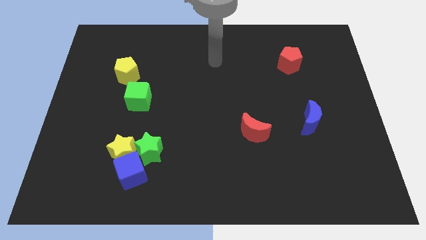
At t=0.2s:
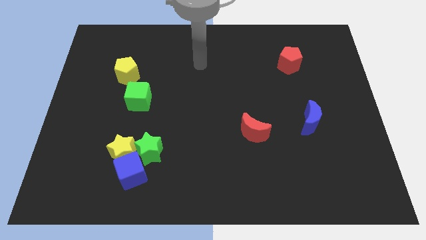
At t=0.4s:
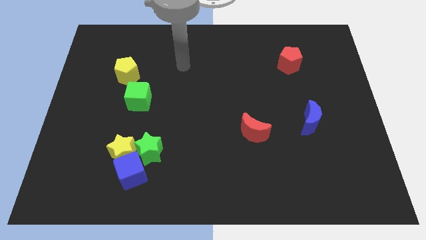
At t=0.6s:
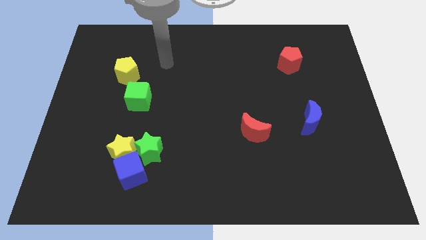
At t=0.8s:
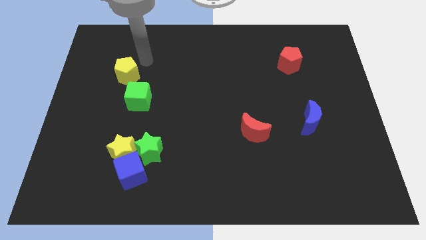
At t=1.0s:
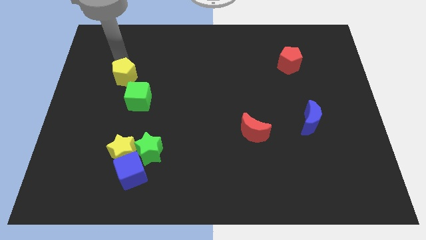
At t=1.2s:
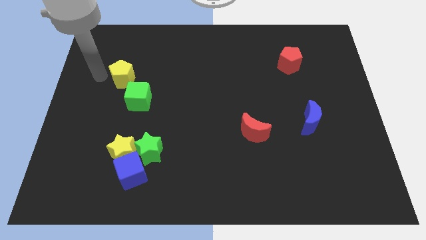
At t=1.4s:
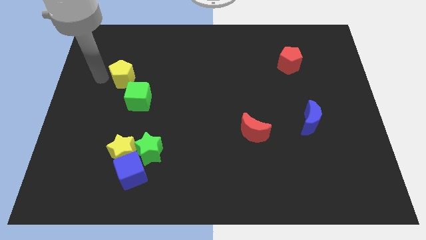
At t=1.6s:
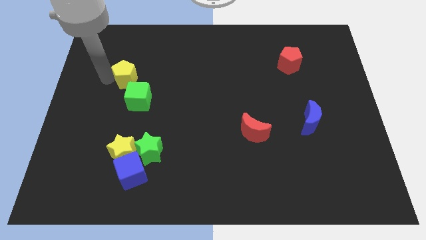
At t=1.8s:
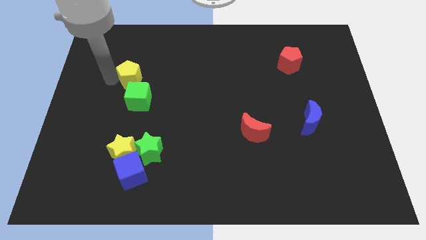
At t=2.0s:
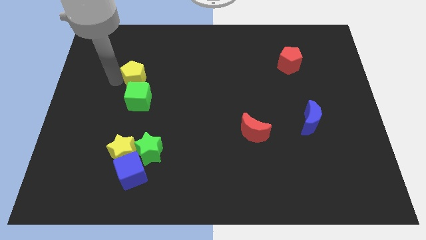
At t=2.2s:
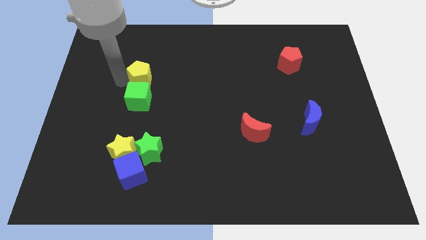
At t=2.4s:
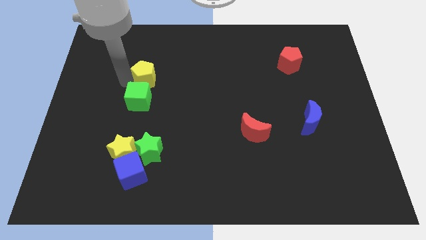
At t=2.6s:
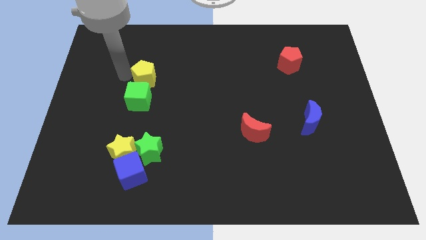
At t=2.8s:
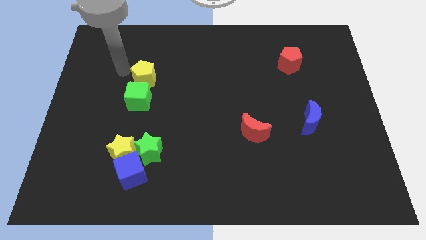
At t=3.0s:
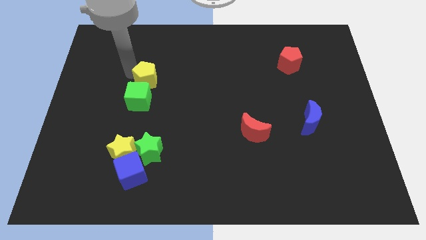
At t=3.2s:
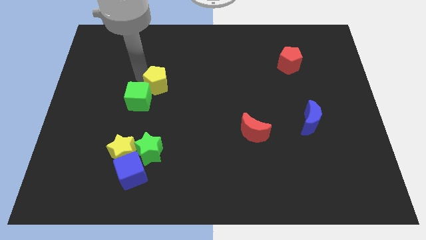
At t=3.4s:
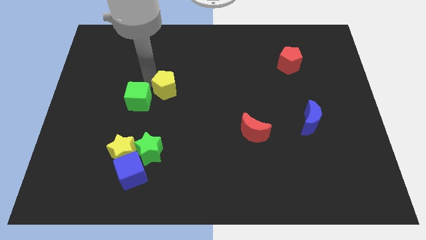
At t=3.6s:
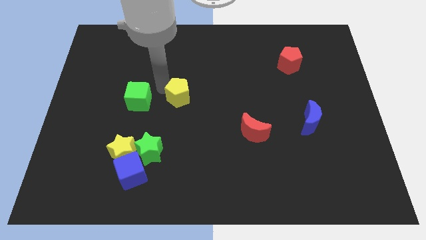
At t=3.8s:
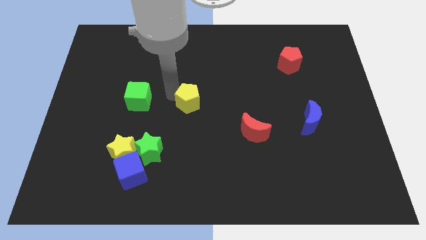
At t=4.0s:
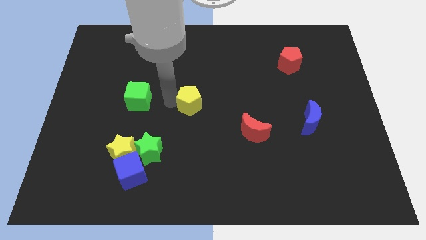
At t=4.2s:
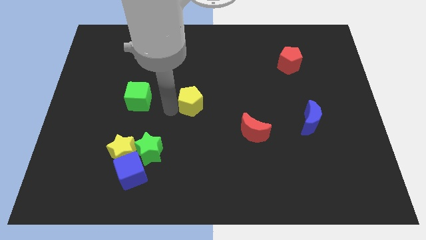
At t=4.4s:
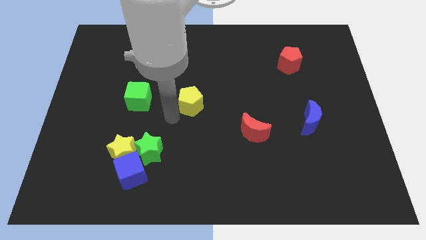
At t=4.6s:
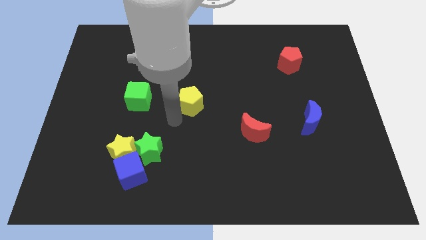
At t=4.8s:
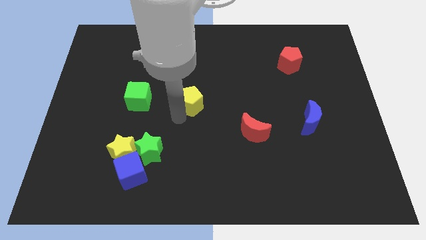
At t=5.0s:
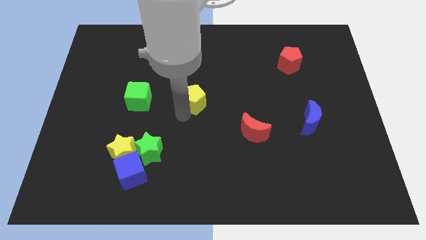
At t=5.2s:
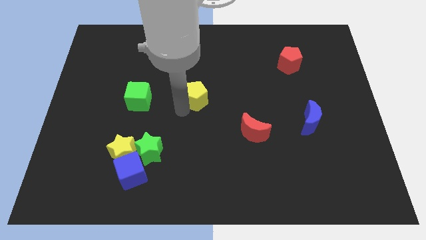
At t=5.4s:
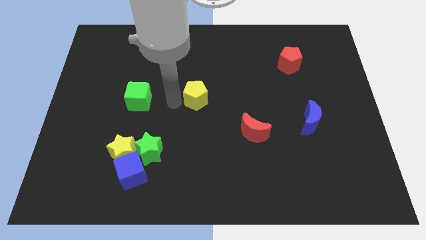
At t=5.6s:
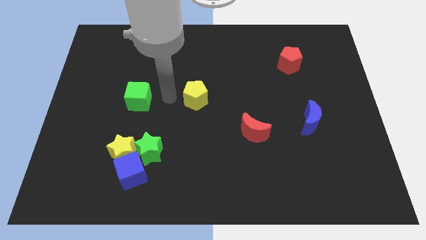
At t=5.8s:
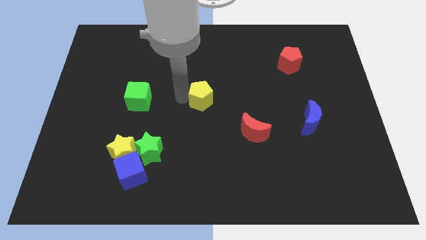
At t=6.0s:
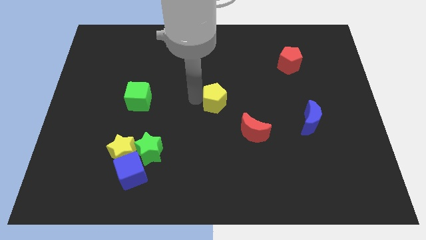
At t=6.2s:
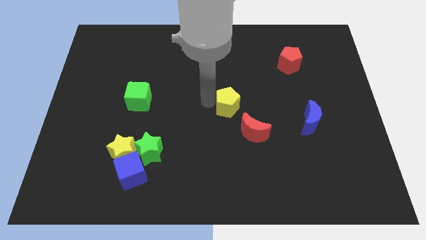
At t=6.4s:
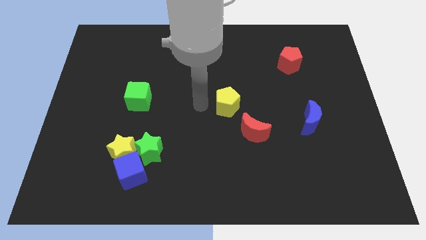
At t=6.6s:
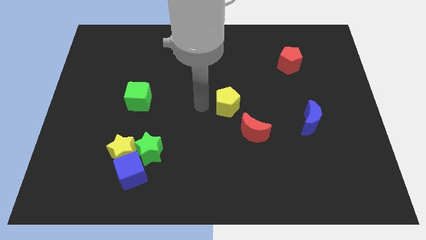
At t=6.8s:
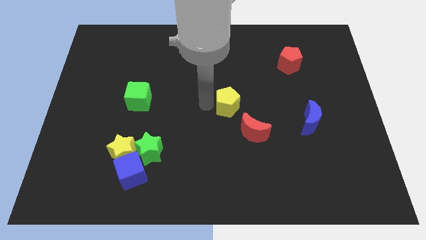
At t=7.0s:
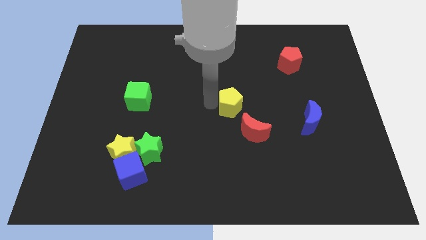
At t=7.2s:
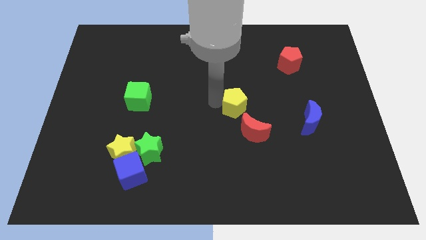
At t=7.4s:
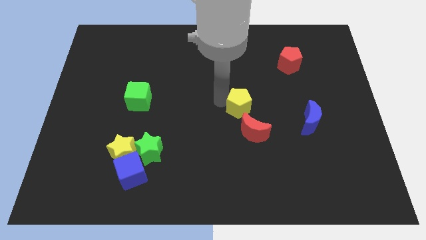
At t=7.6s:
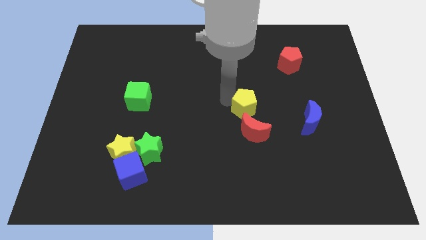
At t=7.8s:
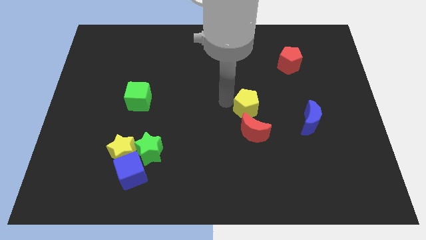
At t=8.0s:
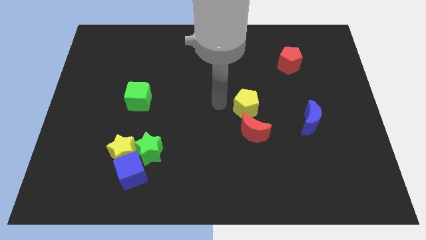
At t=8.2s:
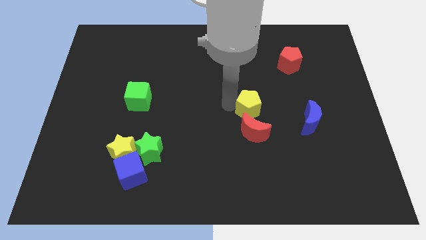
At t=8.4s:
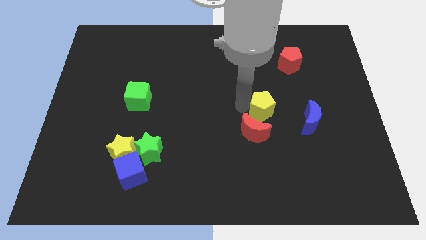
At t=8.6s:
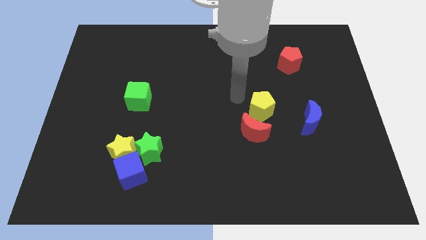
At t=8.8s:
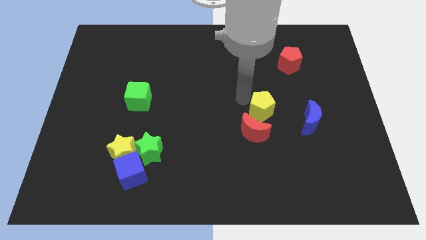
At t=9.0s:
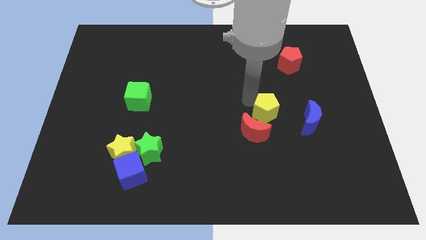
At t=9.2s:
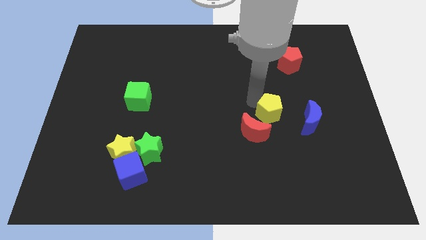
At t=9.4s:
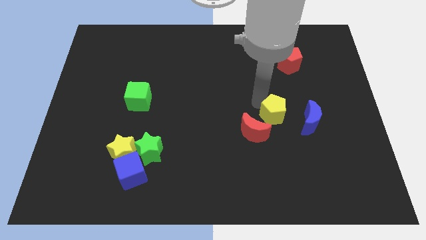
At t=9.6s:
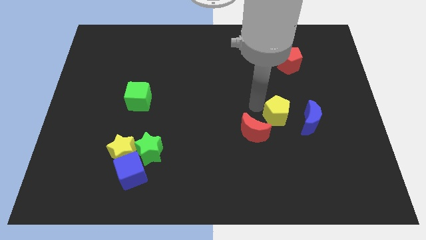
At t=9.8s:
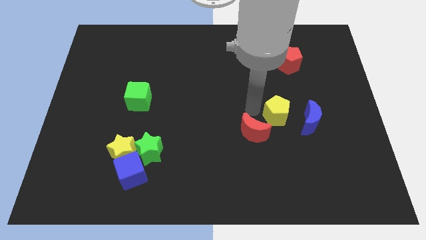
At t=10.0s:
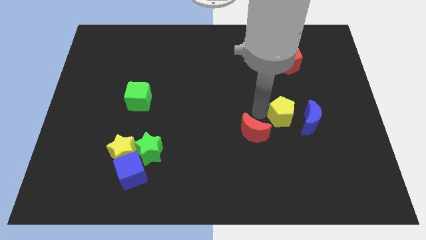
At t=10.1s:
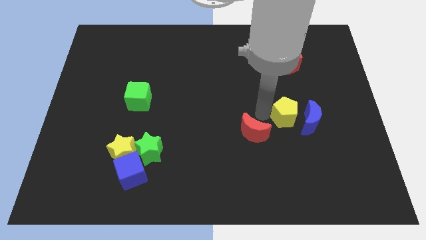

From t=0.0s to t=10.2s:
put the yellow pentagon towards the blue moon

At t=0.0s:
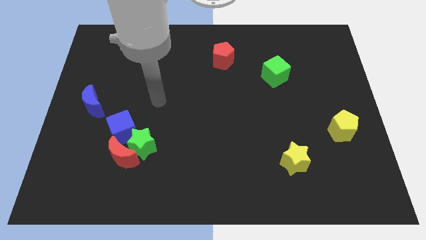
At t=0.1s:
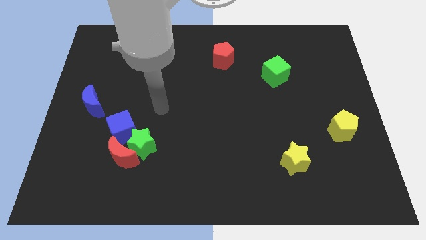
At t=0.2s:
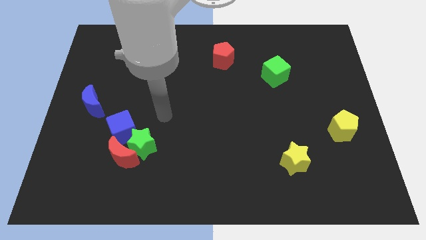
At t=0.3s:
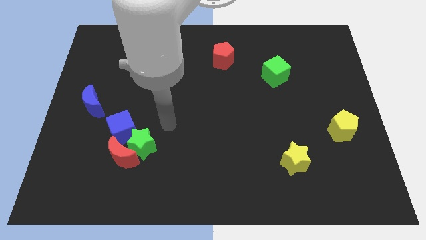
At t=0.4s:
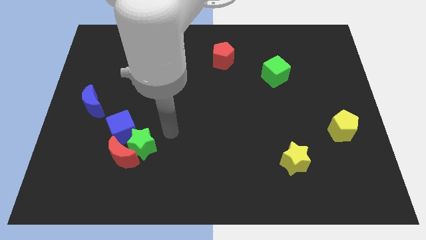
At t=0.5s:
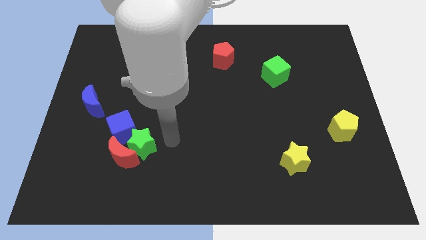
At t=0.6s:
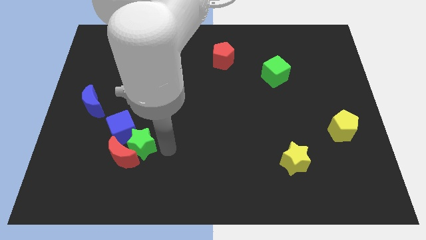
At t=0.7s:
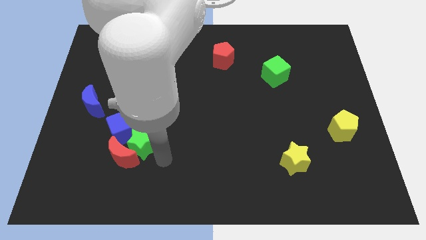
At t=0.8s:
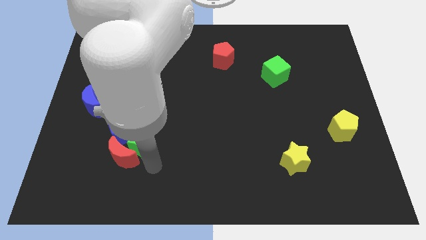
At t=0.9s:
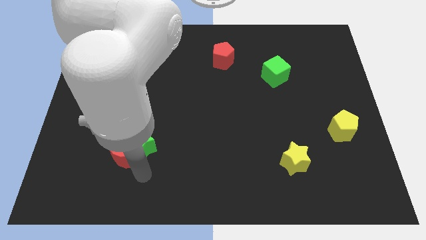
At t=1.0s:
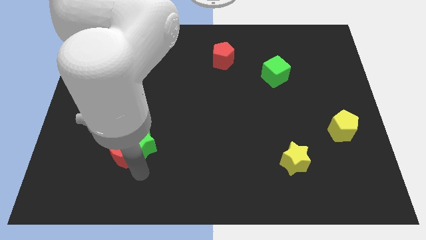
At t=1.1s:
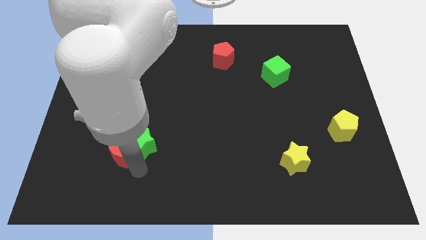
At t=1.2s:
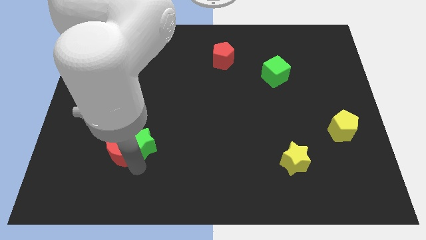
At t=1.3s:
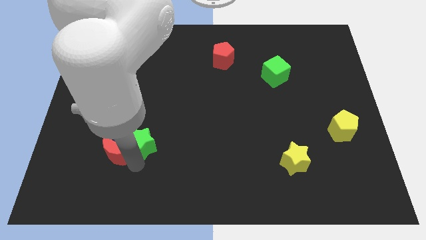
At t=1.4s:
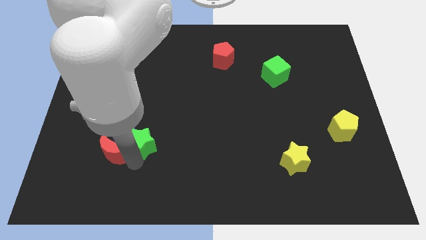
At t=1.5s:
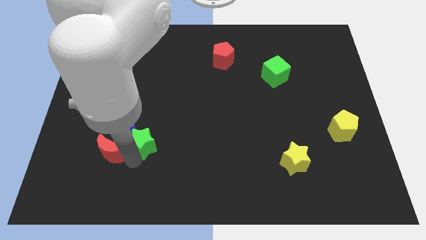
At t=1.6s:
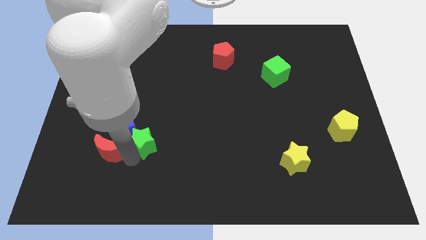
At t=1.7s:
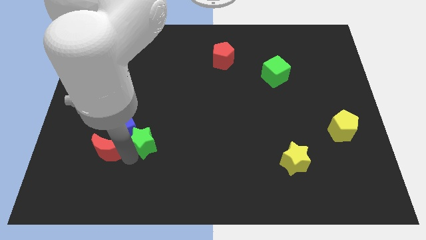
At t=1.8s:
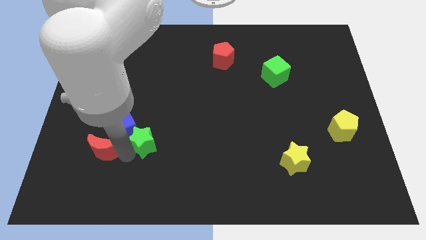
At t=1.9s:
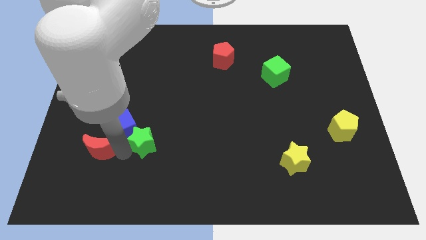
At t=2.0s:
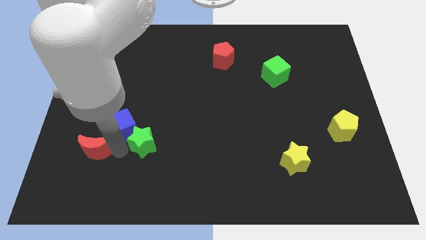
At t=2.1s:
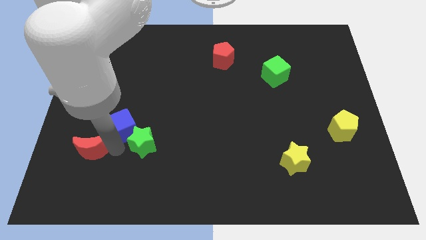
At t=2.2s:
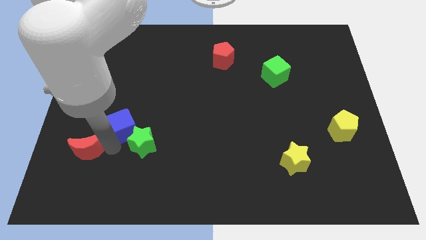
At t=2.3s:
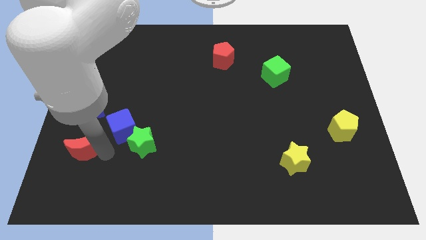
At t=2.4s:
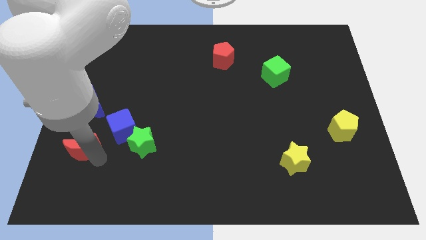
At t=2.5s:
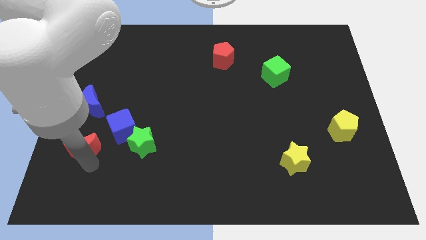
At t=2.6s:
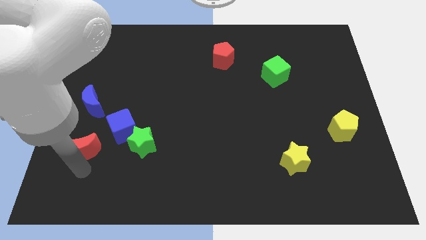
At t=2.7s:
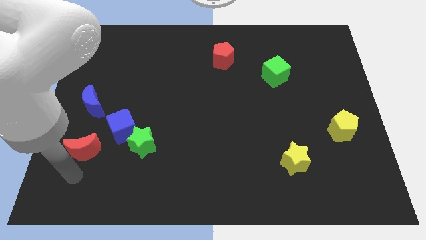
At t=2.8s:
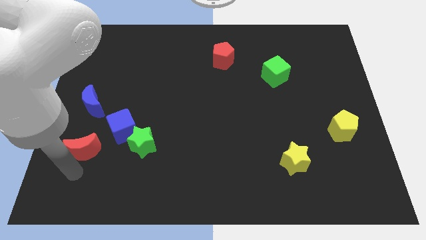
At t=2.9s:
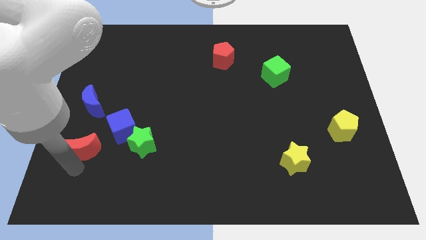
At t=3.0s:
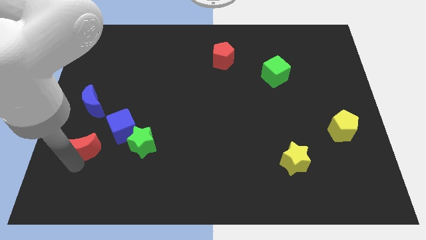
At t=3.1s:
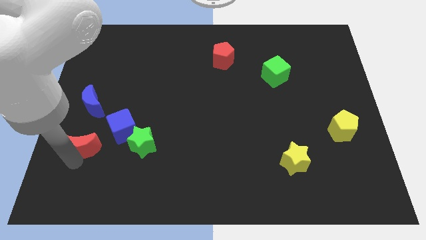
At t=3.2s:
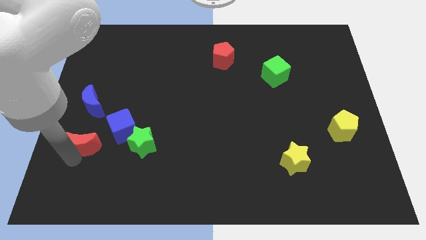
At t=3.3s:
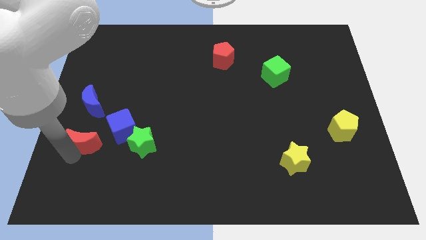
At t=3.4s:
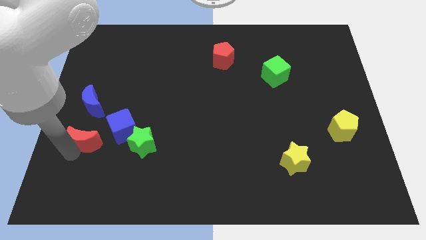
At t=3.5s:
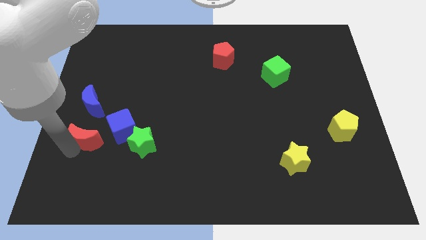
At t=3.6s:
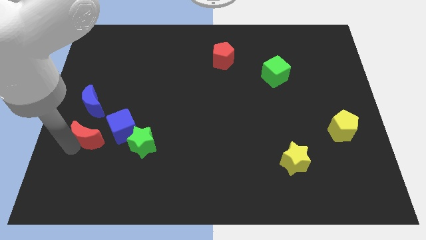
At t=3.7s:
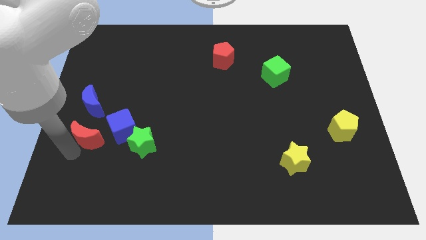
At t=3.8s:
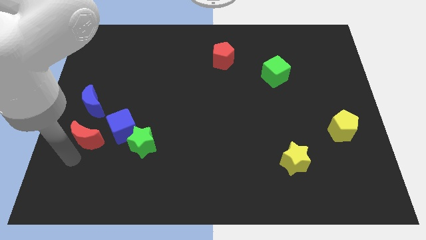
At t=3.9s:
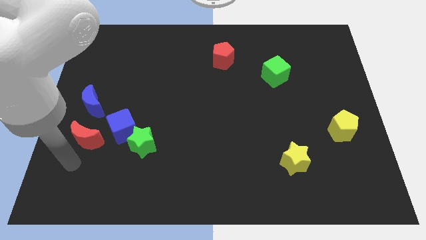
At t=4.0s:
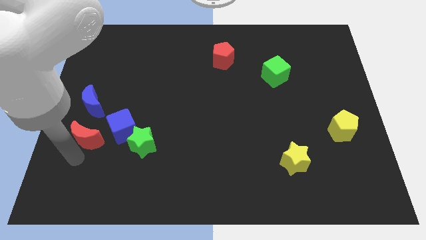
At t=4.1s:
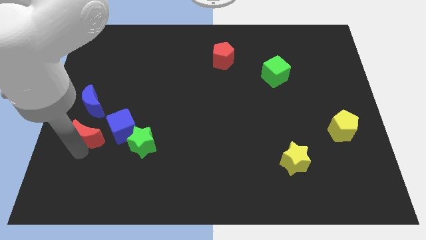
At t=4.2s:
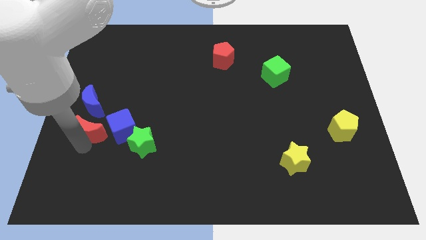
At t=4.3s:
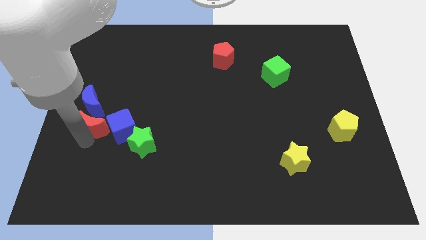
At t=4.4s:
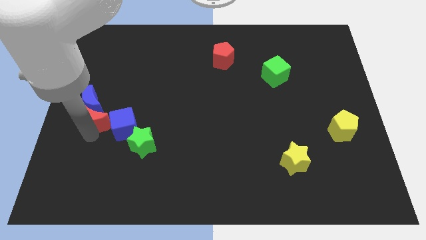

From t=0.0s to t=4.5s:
put the red moon towards the blue moon
